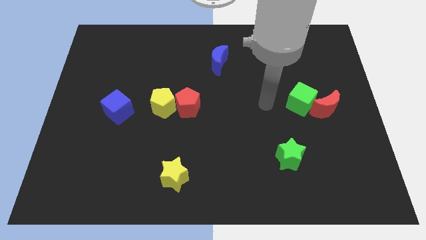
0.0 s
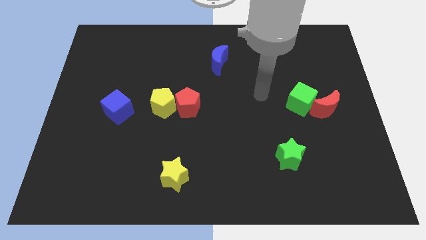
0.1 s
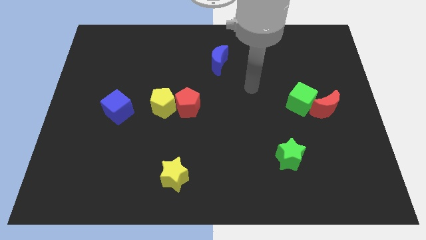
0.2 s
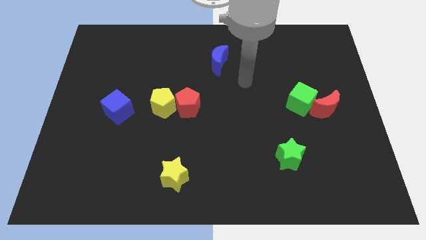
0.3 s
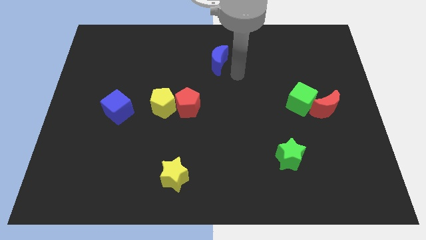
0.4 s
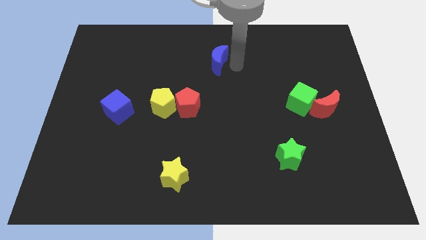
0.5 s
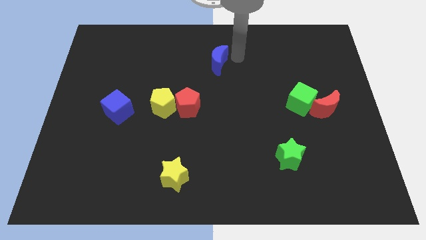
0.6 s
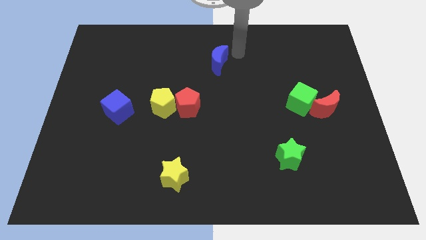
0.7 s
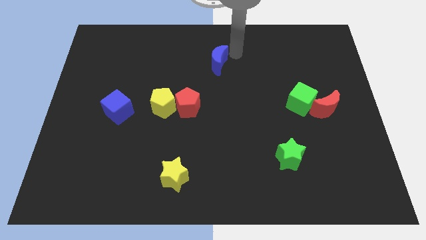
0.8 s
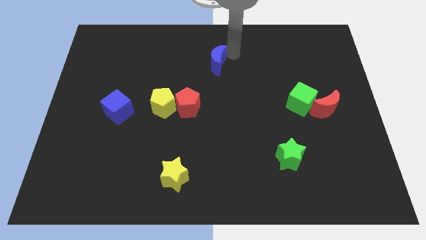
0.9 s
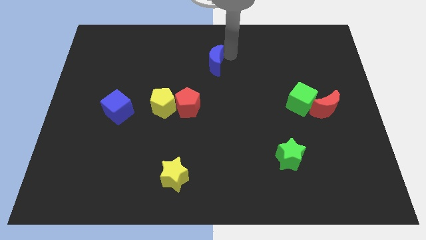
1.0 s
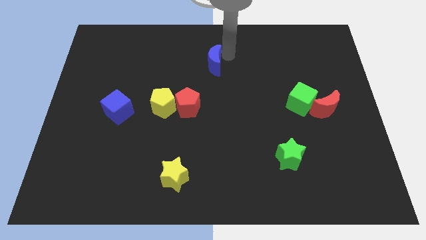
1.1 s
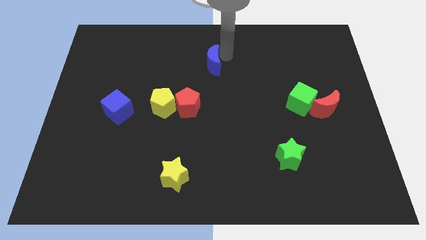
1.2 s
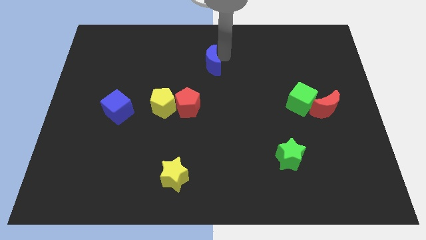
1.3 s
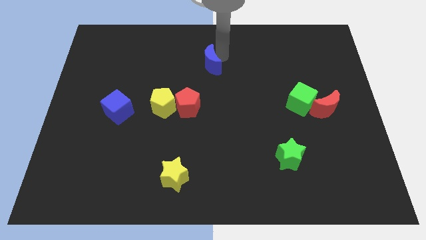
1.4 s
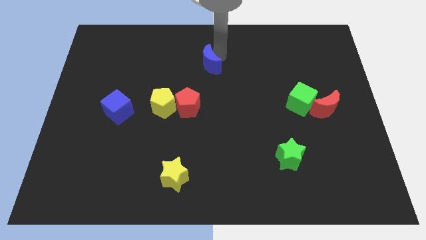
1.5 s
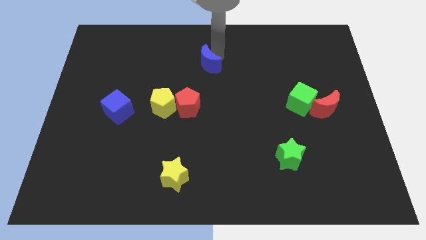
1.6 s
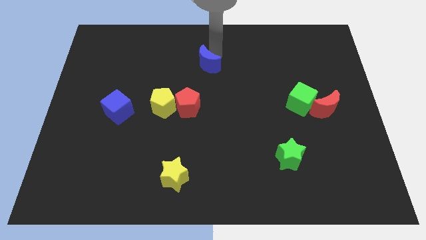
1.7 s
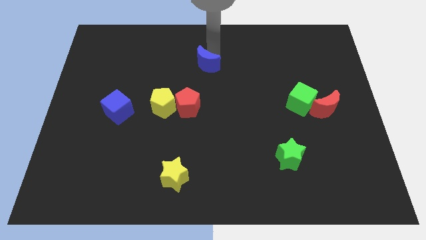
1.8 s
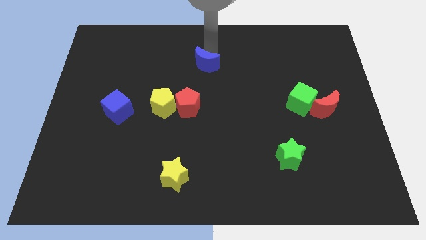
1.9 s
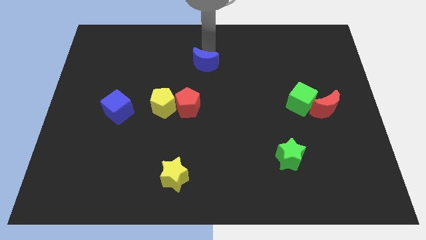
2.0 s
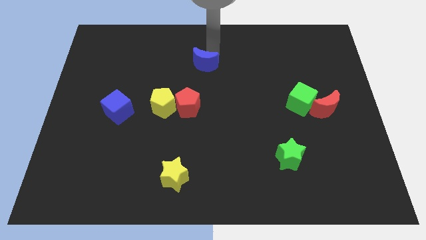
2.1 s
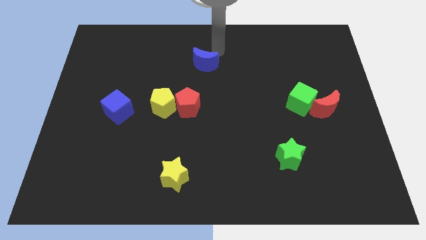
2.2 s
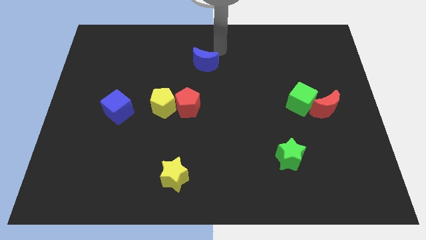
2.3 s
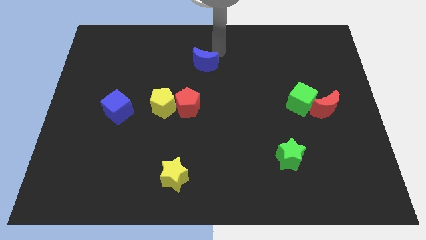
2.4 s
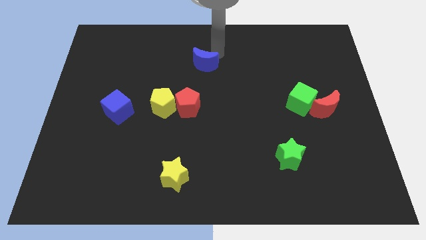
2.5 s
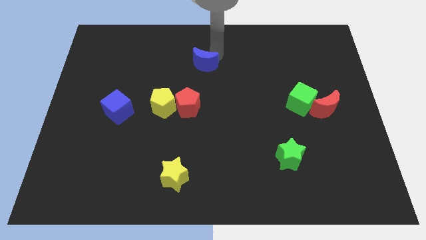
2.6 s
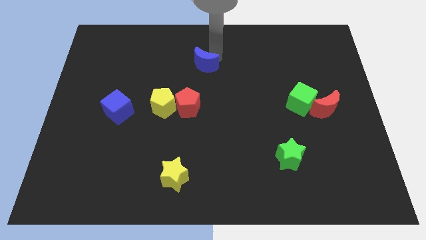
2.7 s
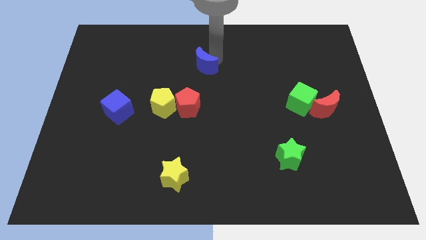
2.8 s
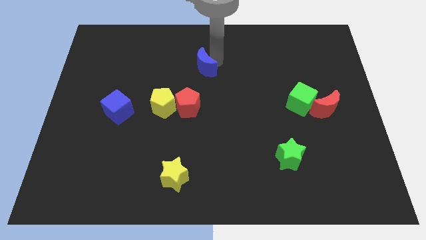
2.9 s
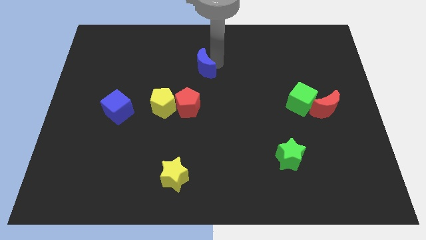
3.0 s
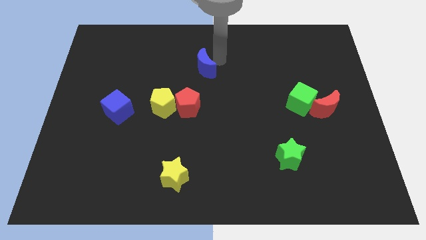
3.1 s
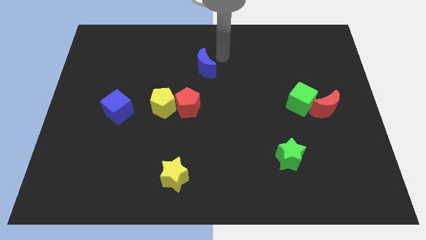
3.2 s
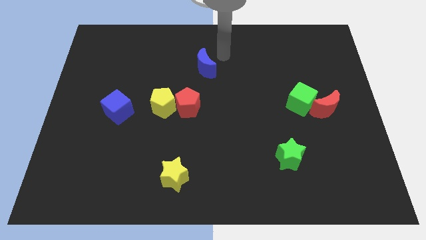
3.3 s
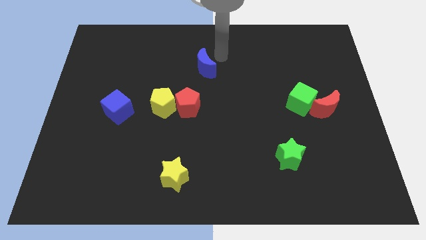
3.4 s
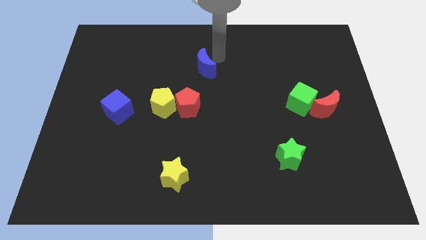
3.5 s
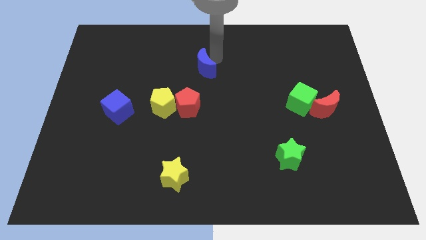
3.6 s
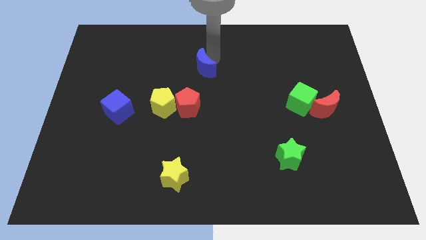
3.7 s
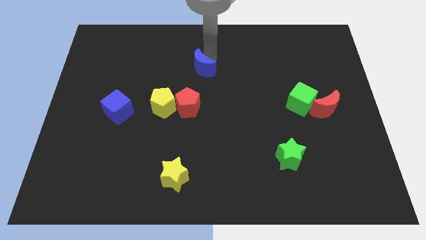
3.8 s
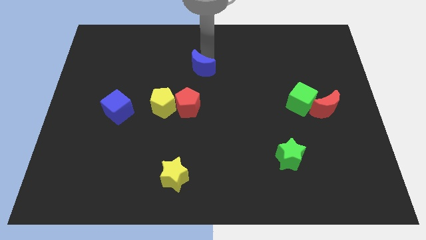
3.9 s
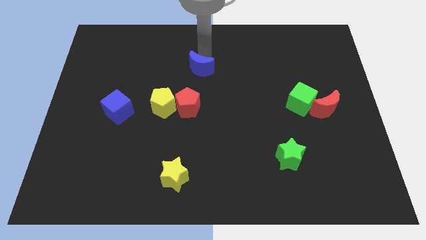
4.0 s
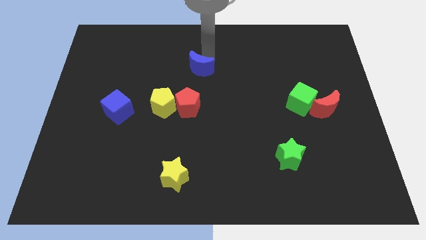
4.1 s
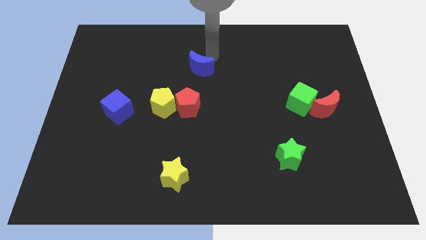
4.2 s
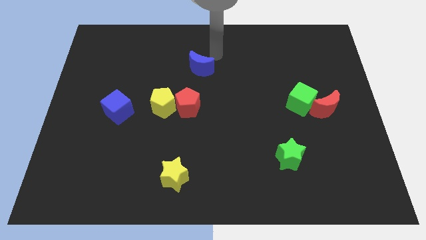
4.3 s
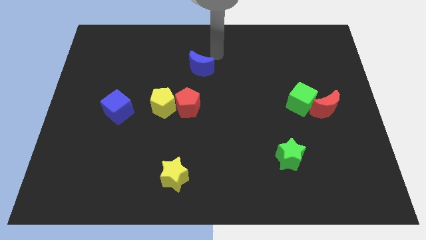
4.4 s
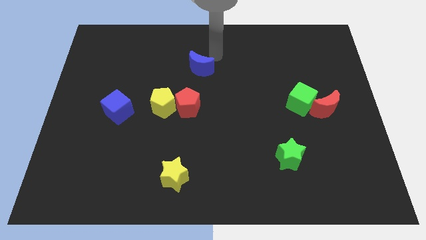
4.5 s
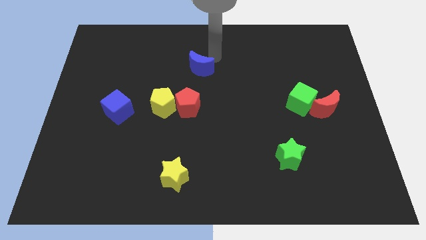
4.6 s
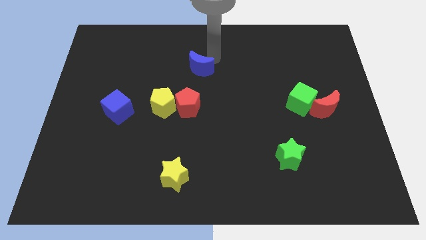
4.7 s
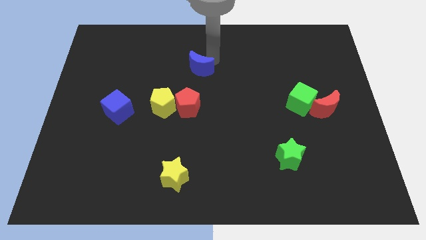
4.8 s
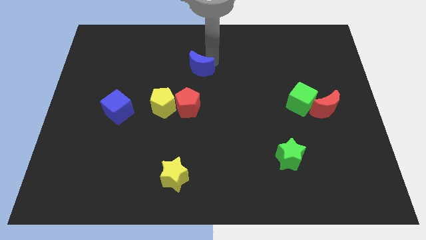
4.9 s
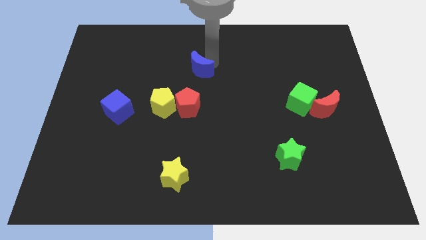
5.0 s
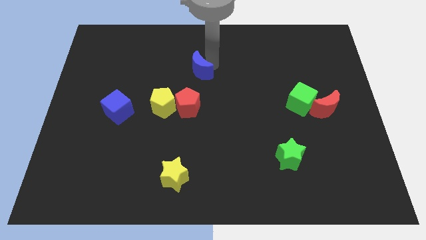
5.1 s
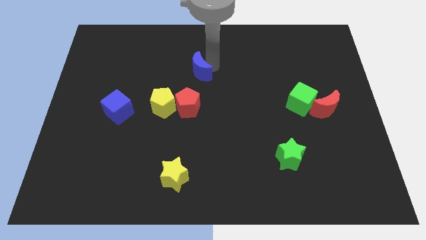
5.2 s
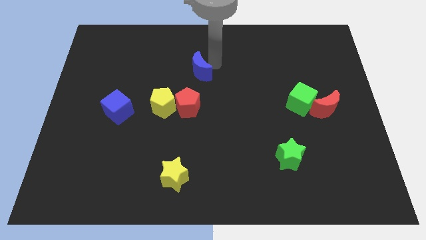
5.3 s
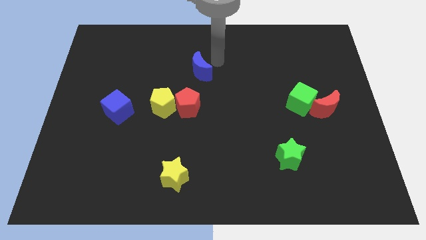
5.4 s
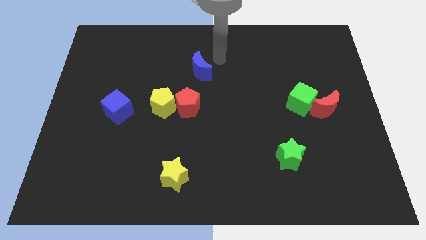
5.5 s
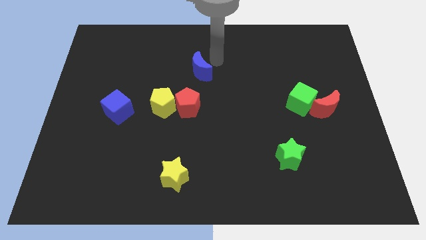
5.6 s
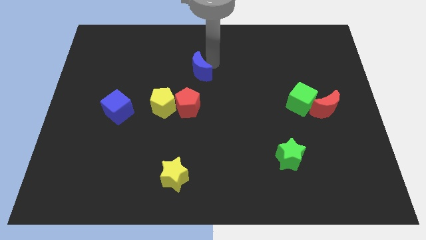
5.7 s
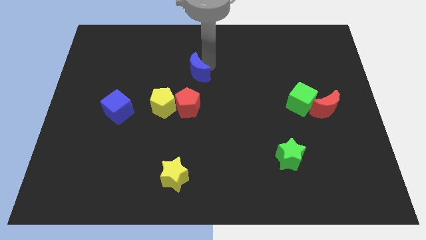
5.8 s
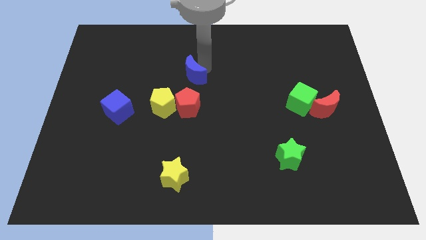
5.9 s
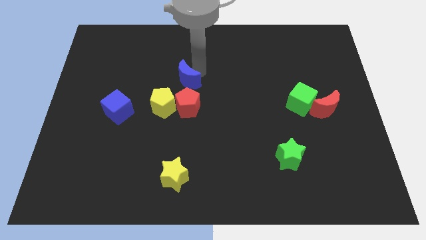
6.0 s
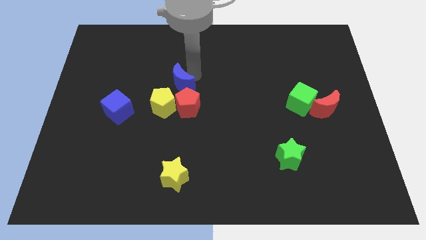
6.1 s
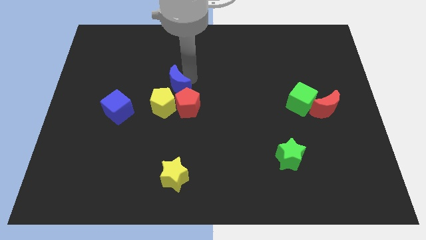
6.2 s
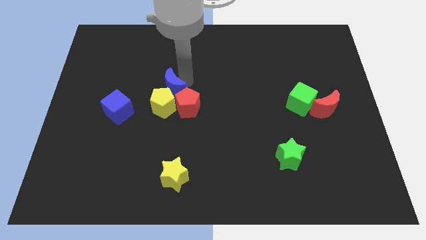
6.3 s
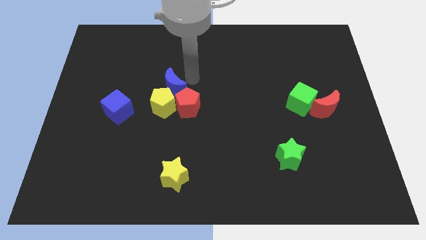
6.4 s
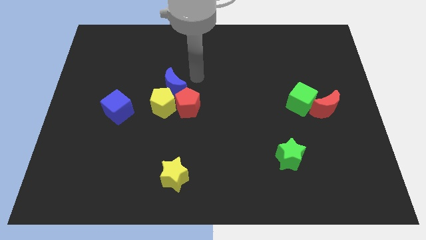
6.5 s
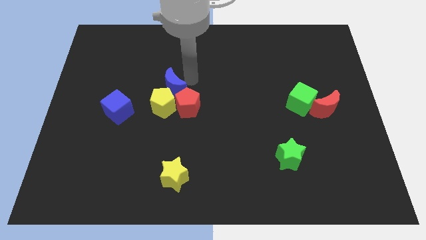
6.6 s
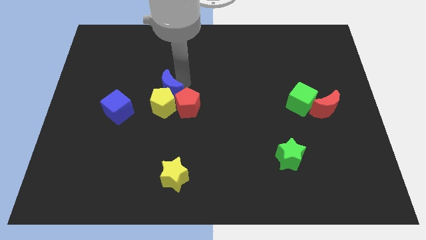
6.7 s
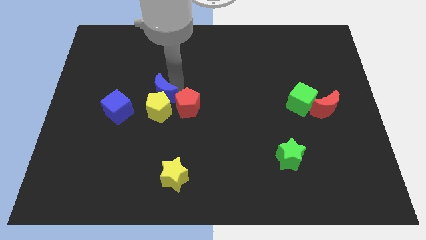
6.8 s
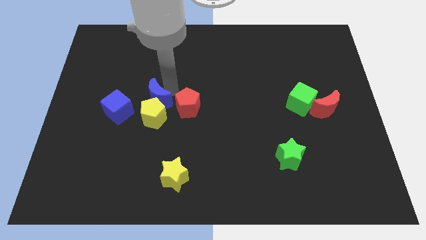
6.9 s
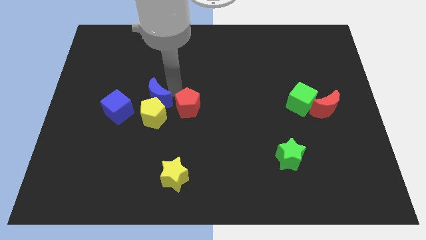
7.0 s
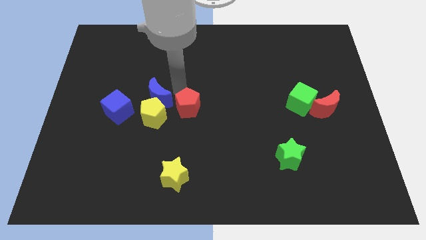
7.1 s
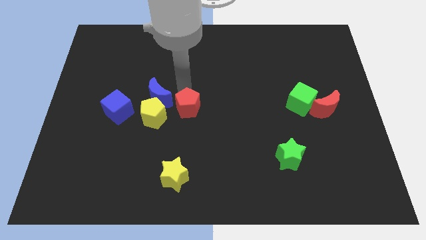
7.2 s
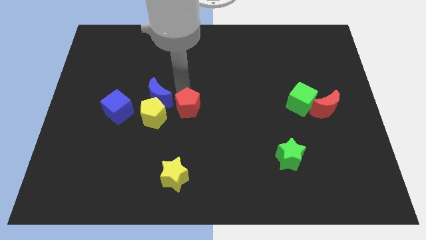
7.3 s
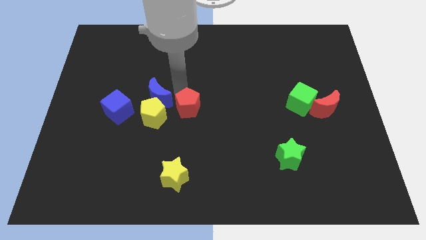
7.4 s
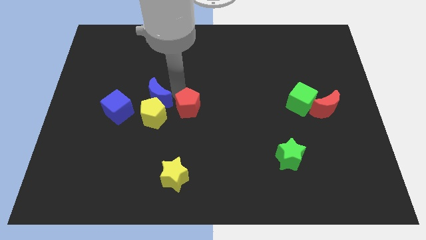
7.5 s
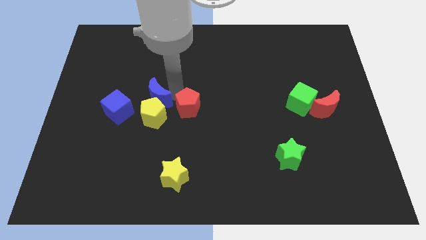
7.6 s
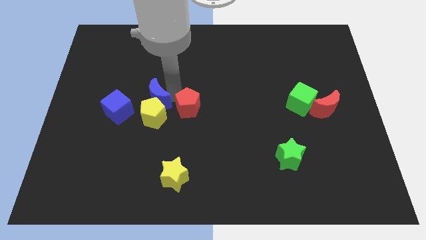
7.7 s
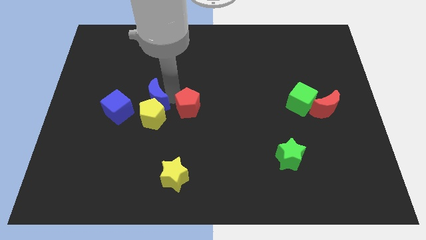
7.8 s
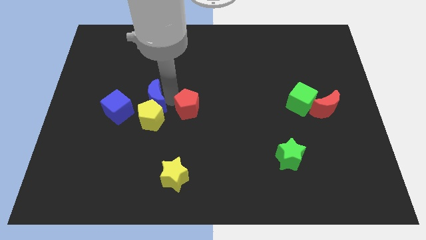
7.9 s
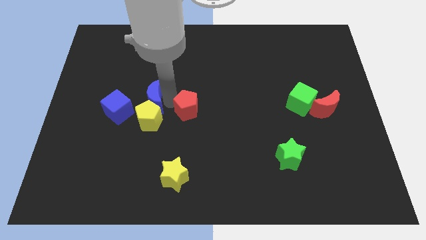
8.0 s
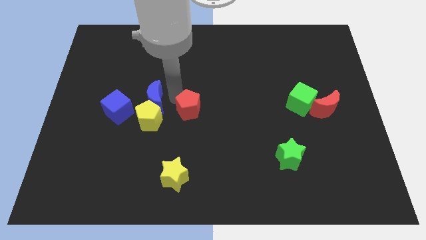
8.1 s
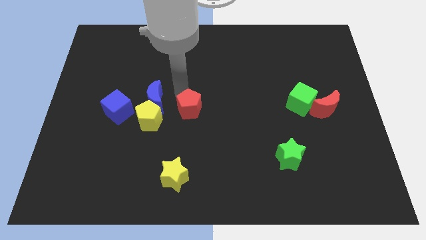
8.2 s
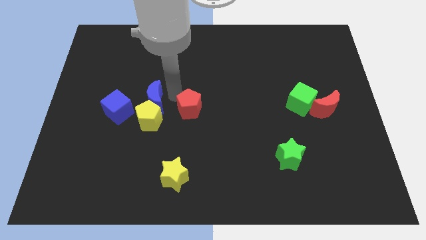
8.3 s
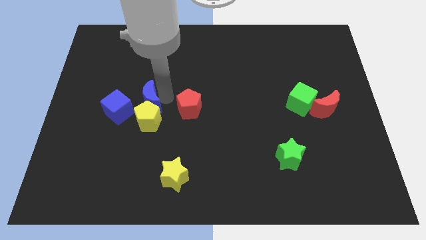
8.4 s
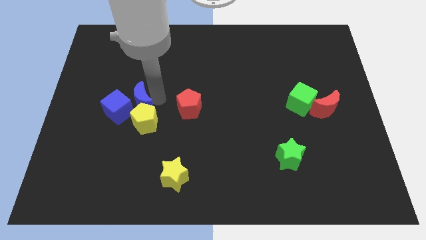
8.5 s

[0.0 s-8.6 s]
put the blue moon to the blue cube
